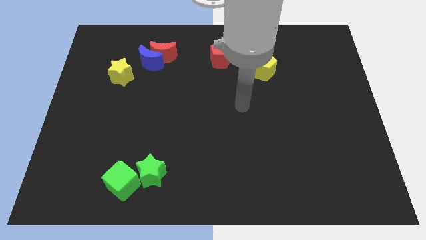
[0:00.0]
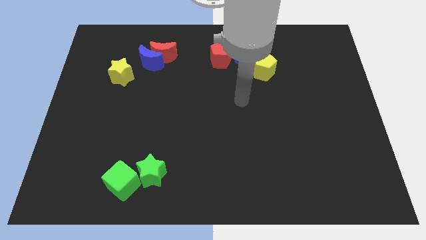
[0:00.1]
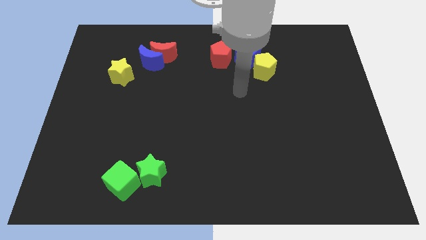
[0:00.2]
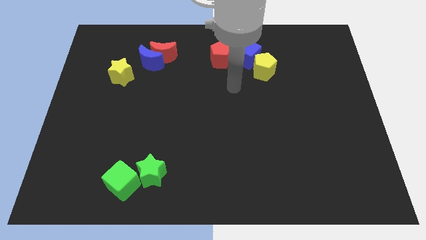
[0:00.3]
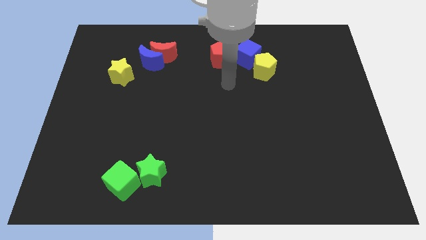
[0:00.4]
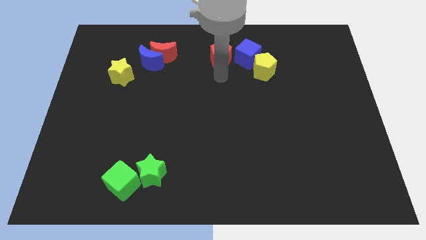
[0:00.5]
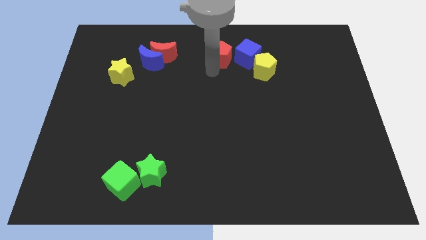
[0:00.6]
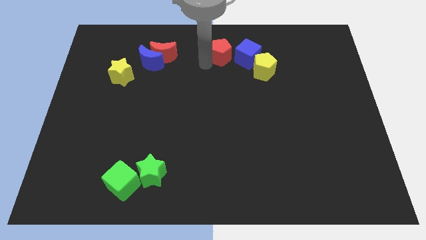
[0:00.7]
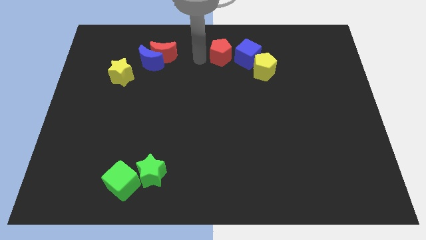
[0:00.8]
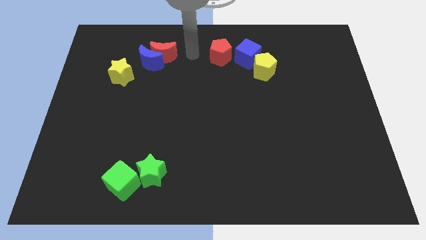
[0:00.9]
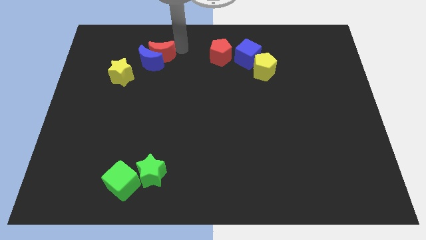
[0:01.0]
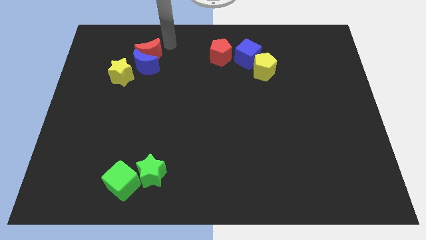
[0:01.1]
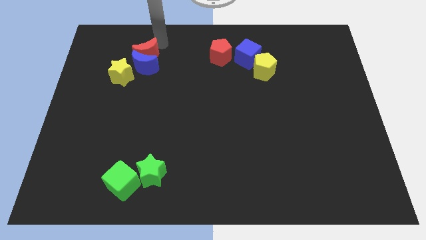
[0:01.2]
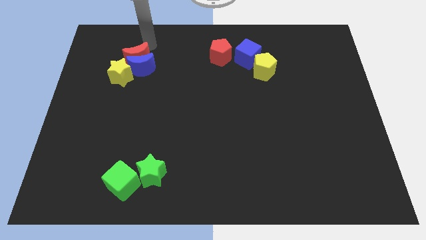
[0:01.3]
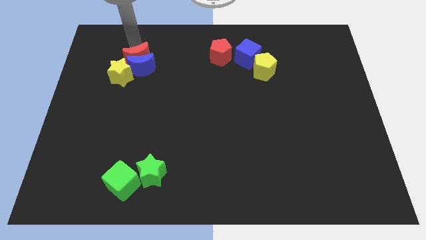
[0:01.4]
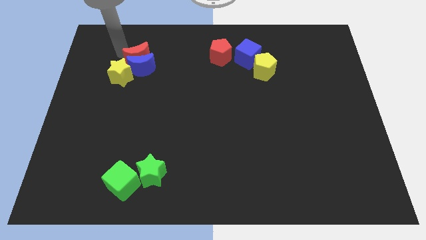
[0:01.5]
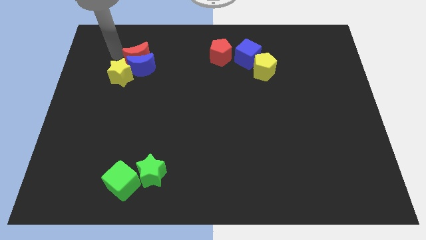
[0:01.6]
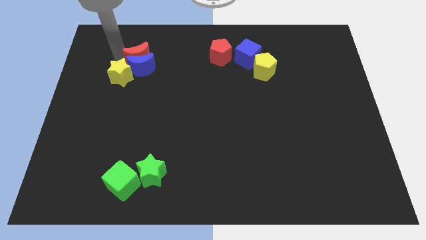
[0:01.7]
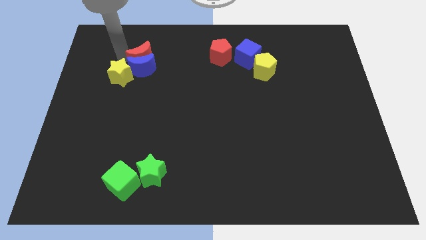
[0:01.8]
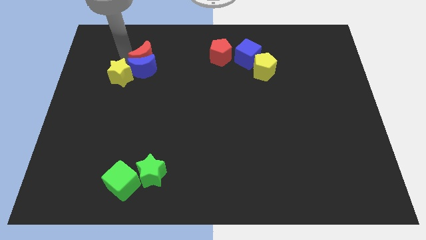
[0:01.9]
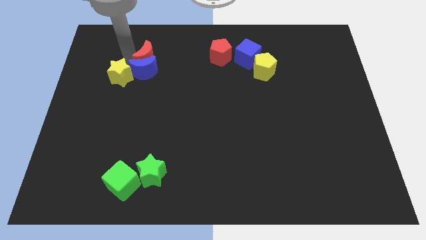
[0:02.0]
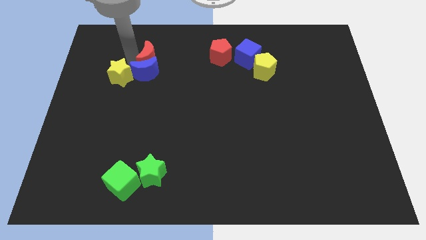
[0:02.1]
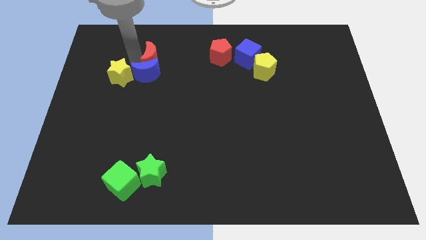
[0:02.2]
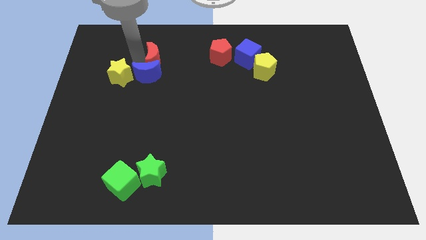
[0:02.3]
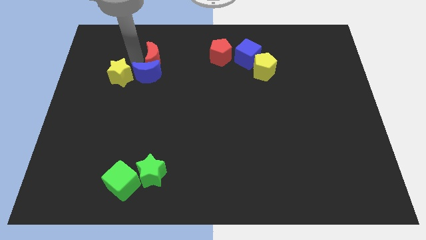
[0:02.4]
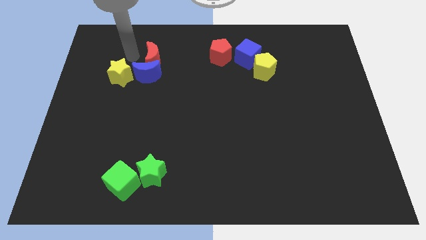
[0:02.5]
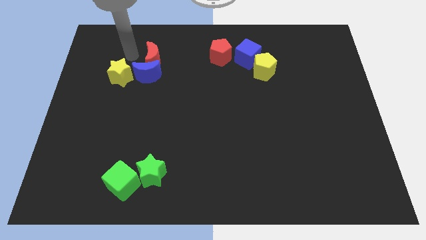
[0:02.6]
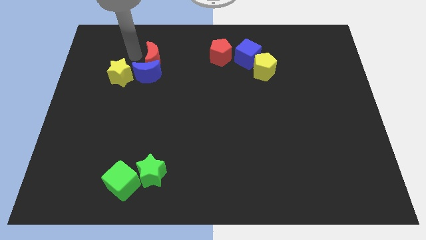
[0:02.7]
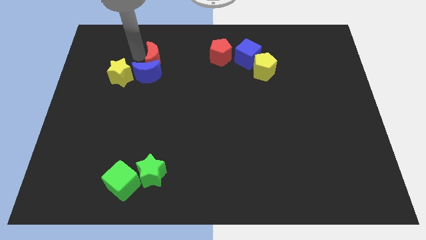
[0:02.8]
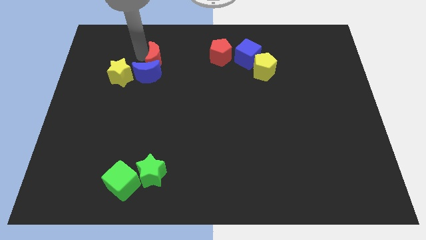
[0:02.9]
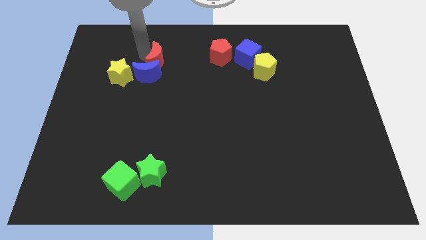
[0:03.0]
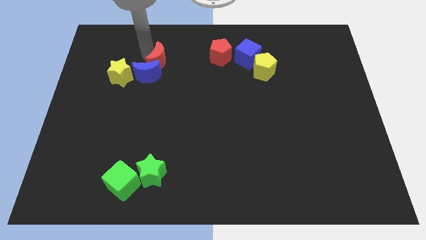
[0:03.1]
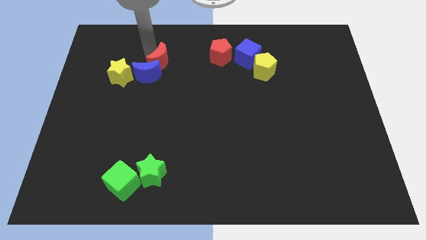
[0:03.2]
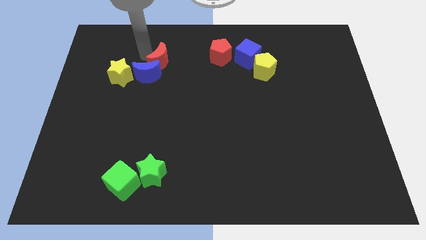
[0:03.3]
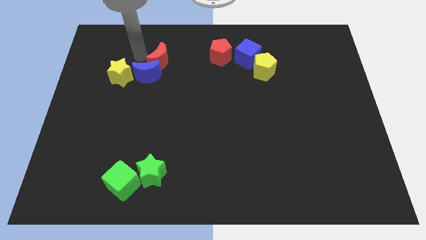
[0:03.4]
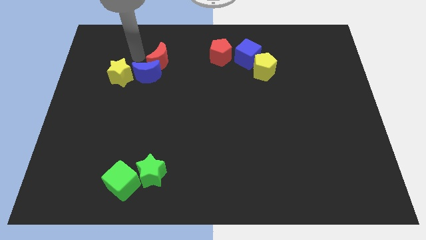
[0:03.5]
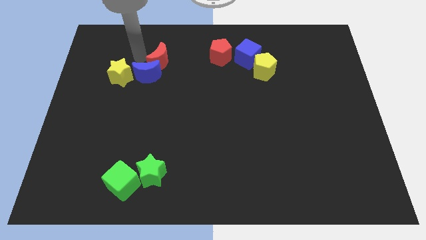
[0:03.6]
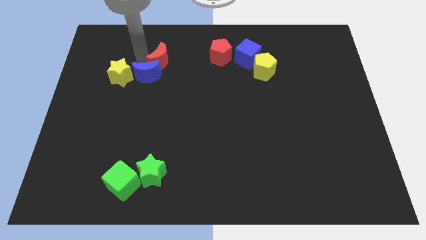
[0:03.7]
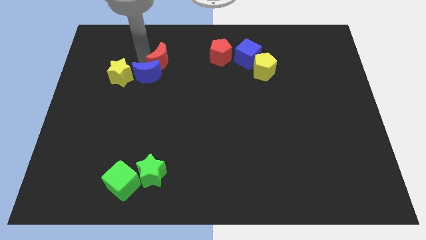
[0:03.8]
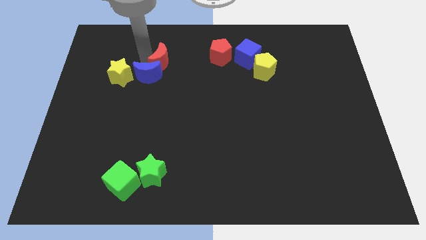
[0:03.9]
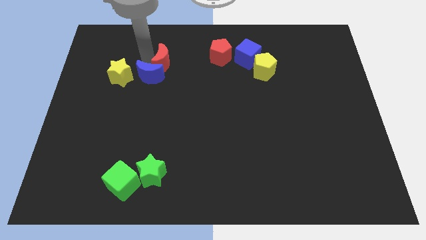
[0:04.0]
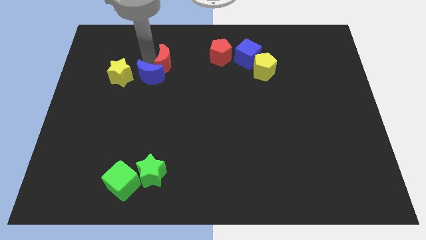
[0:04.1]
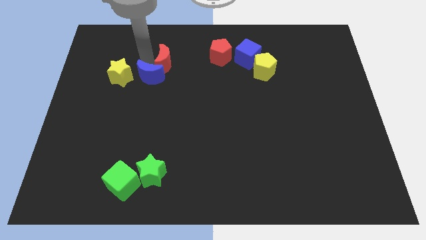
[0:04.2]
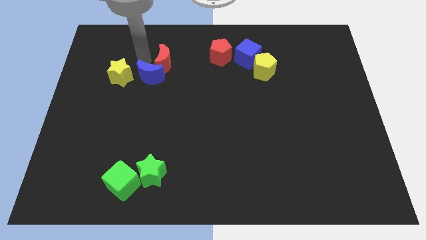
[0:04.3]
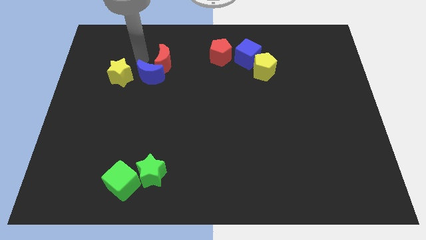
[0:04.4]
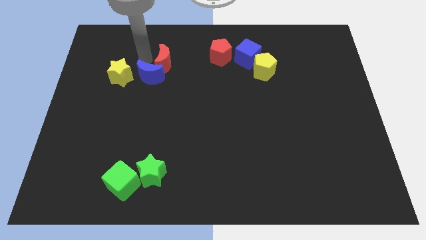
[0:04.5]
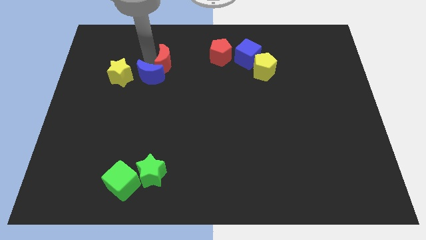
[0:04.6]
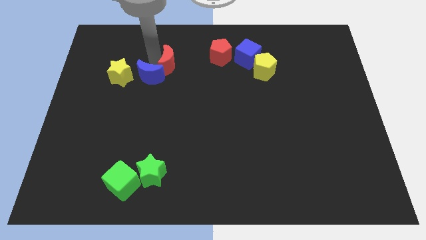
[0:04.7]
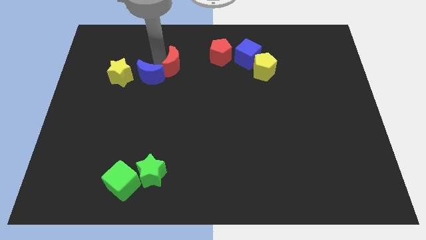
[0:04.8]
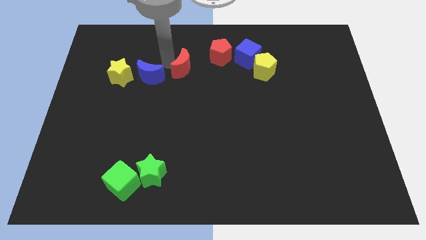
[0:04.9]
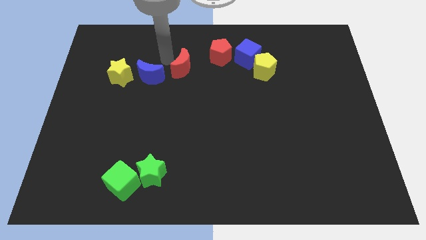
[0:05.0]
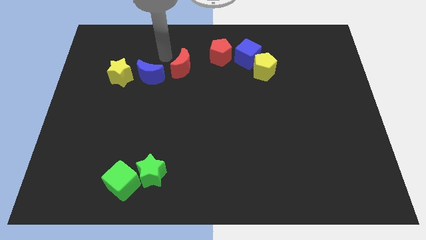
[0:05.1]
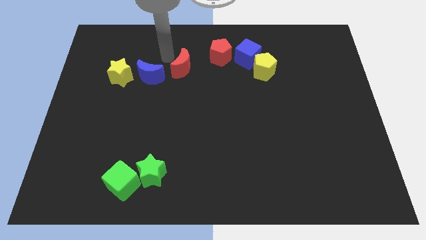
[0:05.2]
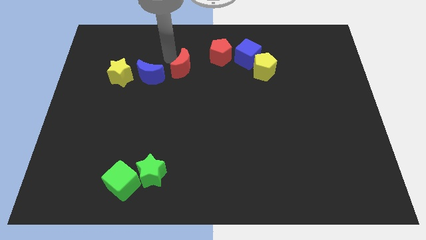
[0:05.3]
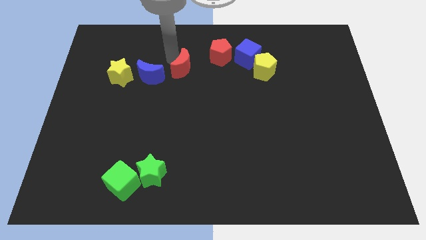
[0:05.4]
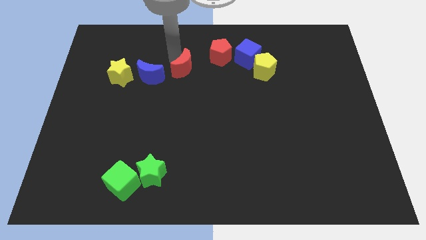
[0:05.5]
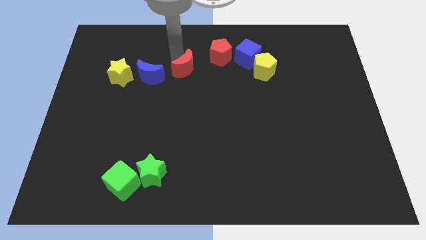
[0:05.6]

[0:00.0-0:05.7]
slide the red moon to the middle of the board

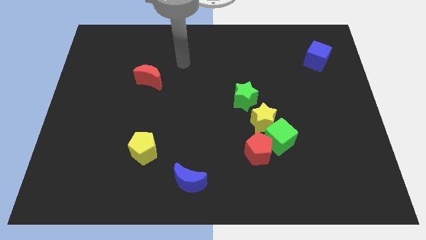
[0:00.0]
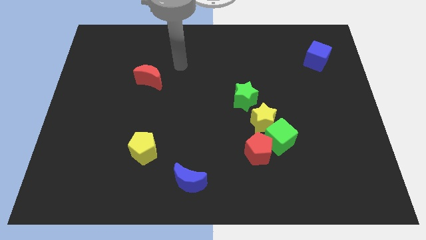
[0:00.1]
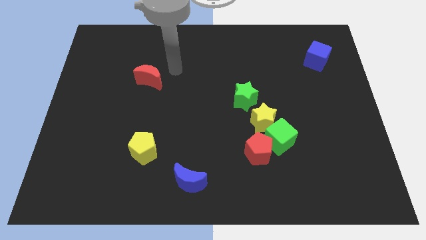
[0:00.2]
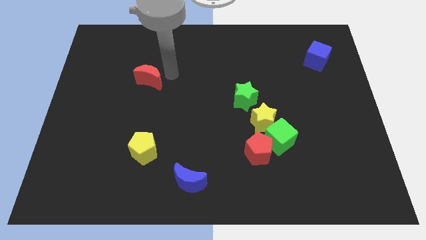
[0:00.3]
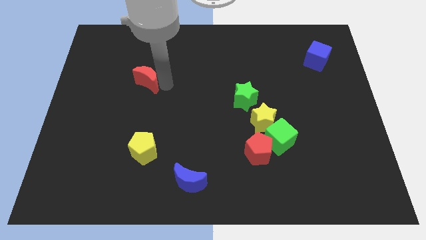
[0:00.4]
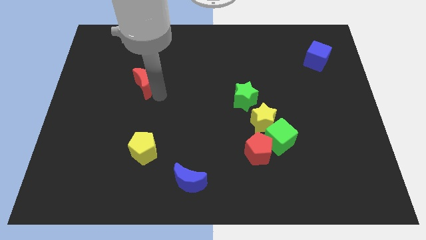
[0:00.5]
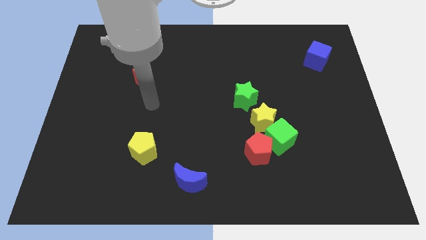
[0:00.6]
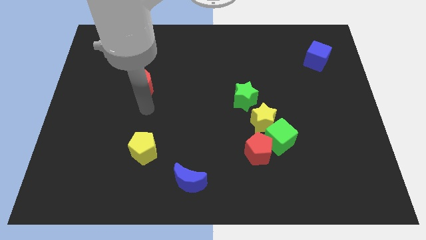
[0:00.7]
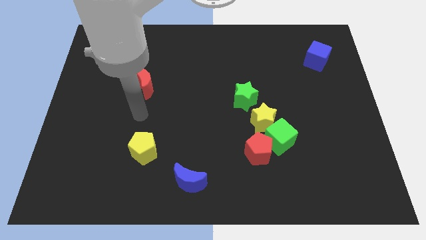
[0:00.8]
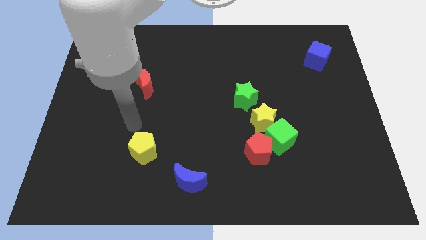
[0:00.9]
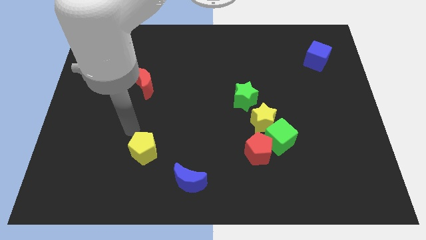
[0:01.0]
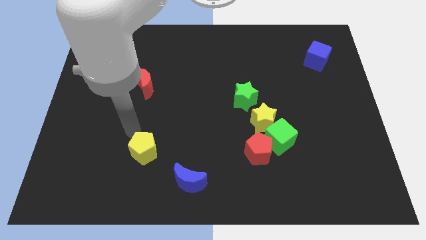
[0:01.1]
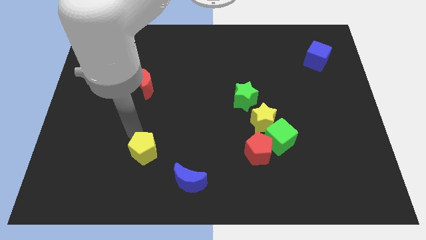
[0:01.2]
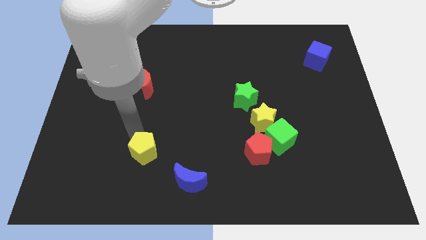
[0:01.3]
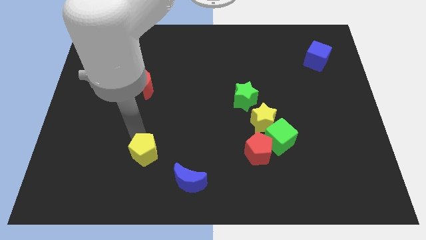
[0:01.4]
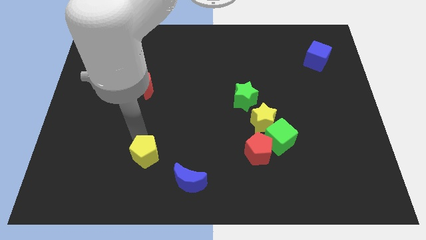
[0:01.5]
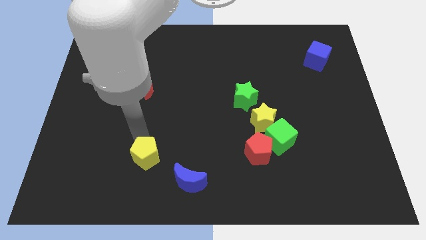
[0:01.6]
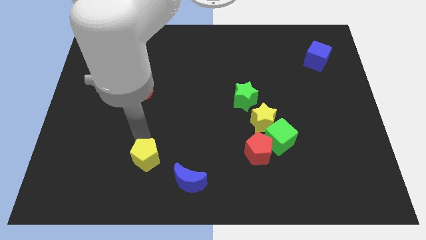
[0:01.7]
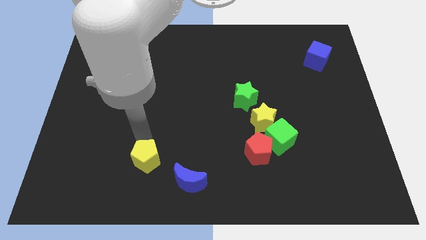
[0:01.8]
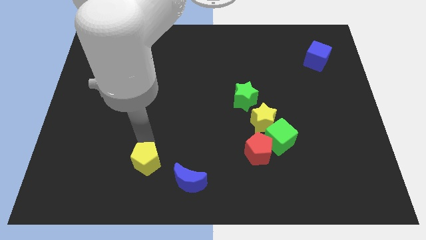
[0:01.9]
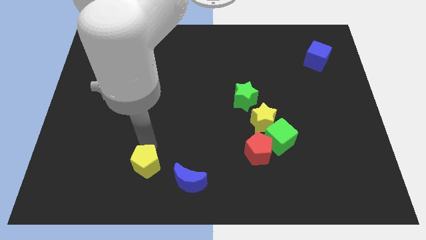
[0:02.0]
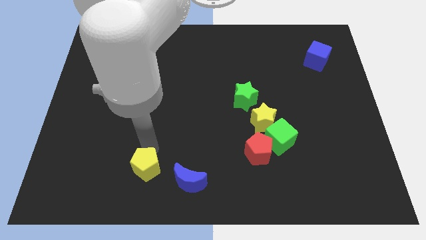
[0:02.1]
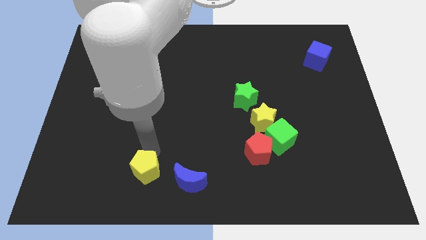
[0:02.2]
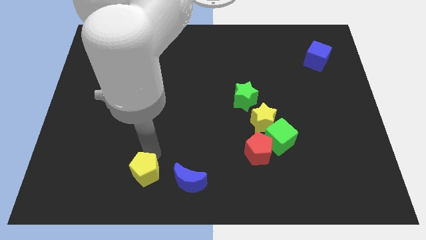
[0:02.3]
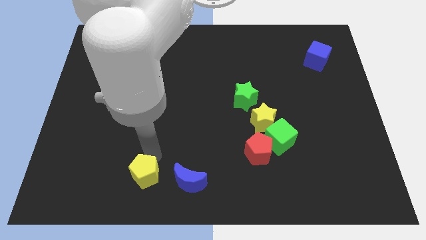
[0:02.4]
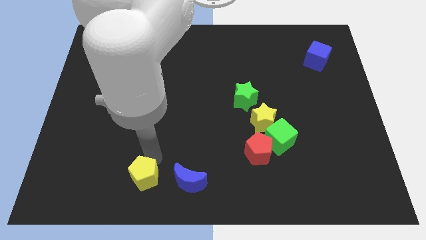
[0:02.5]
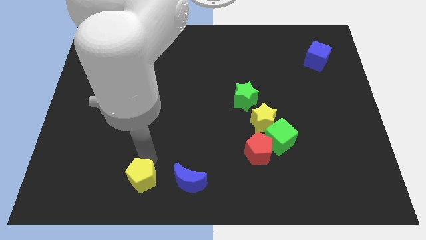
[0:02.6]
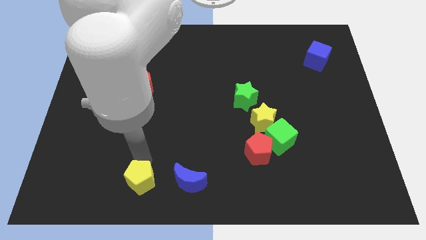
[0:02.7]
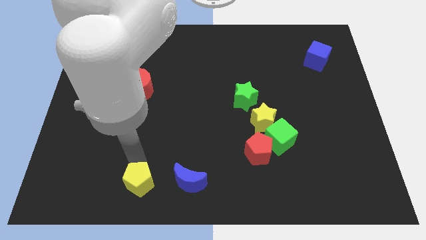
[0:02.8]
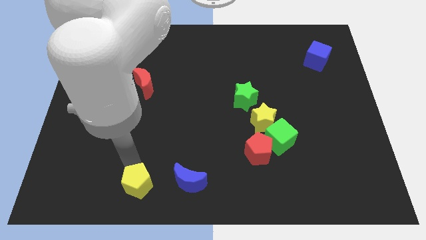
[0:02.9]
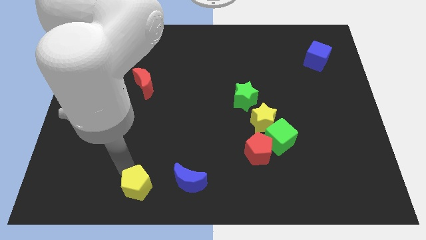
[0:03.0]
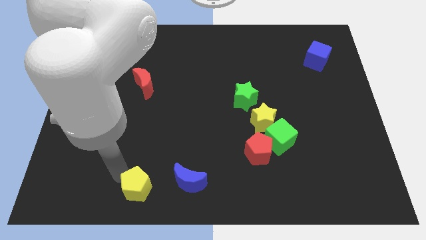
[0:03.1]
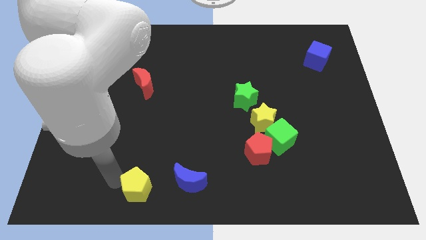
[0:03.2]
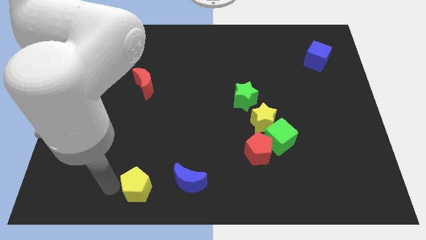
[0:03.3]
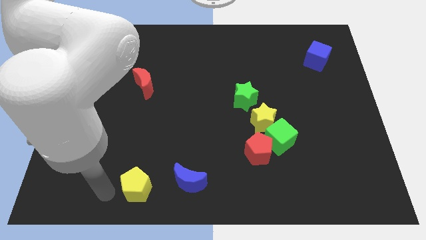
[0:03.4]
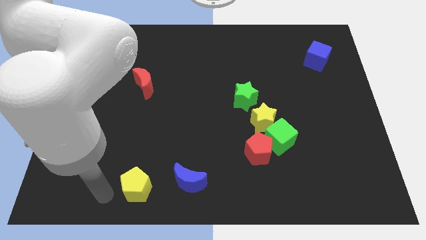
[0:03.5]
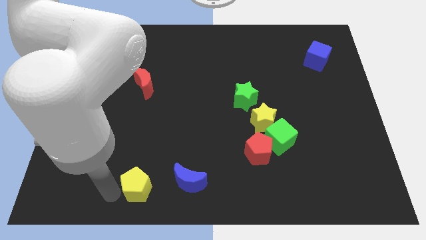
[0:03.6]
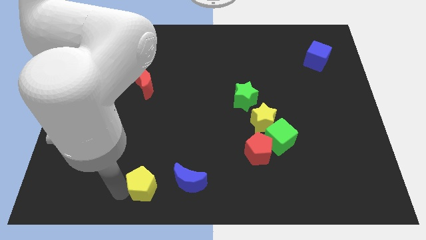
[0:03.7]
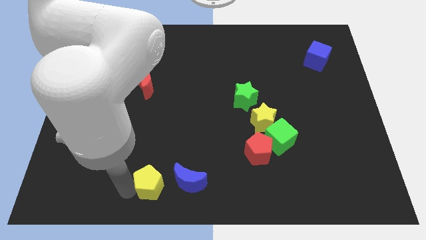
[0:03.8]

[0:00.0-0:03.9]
put the yellow pentagon to the bottom
